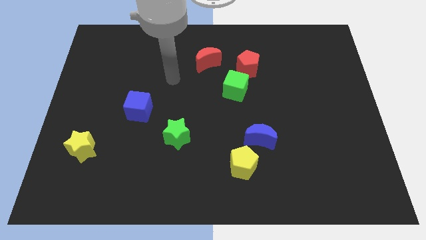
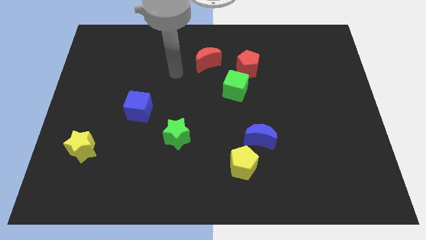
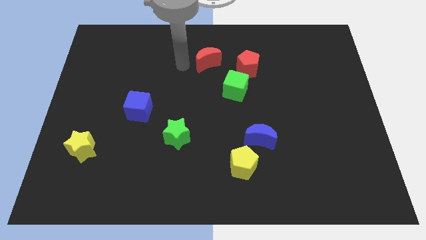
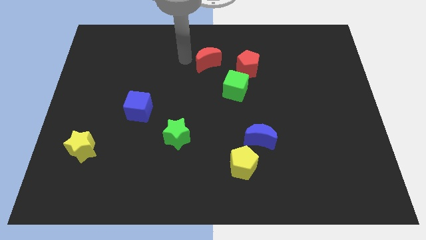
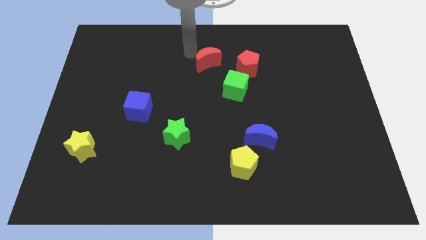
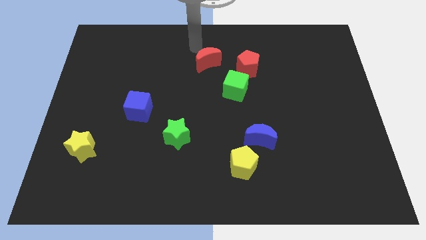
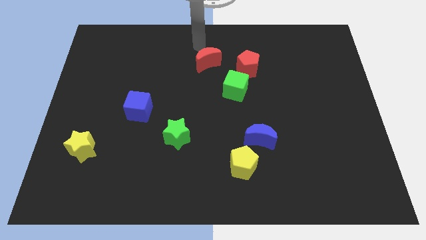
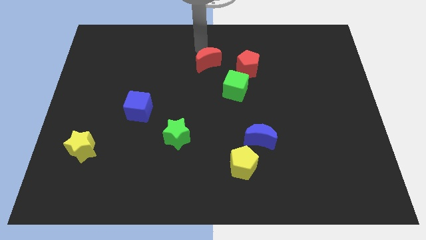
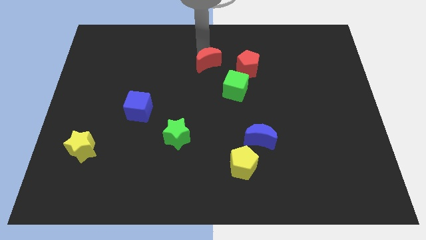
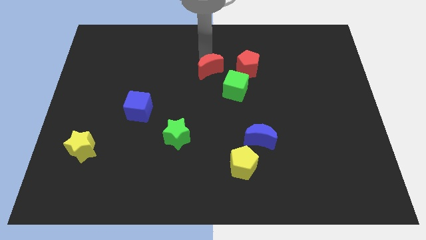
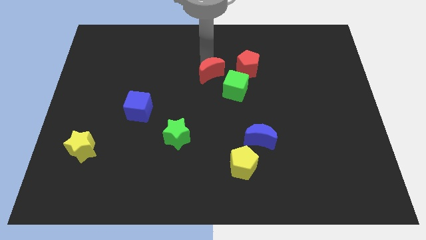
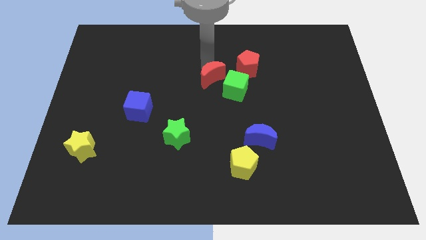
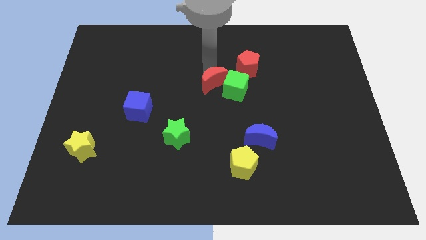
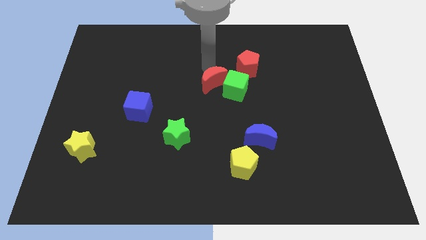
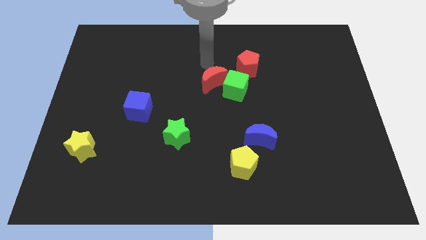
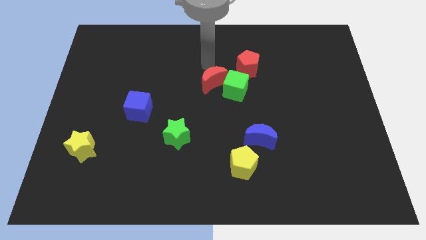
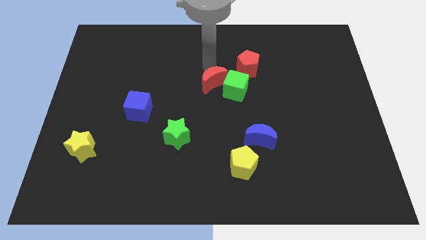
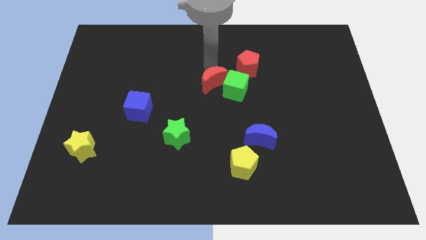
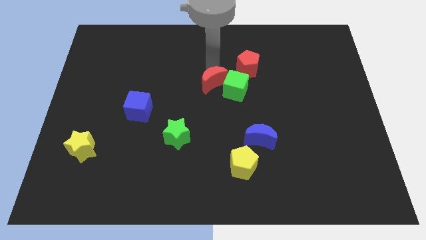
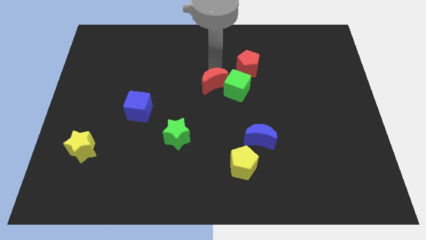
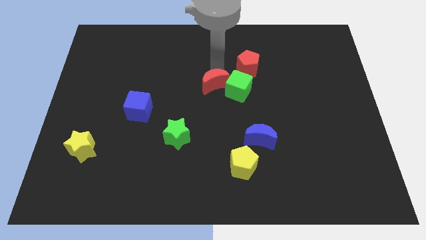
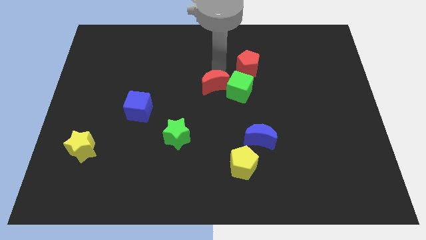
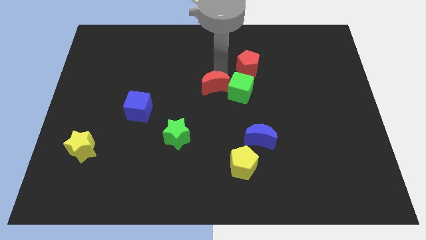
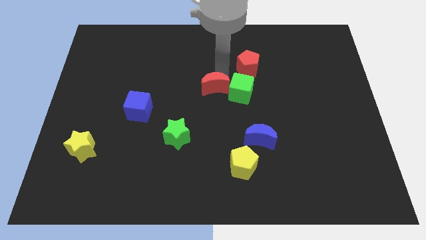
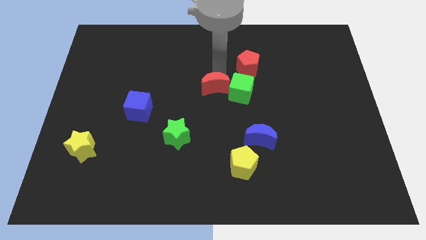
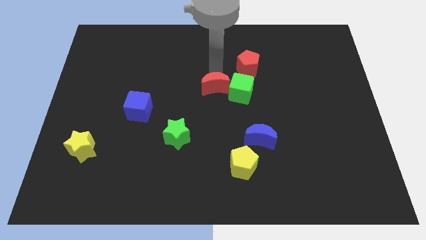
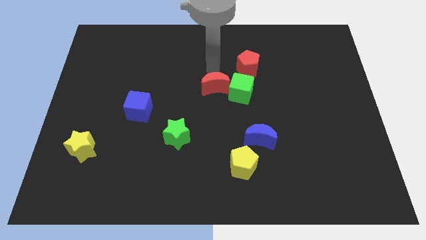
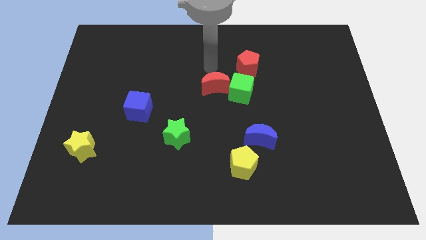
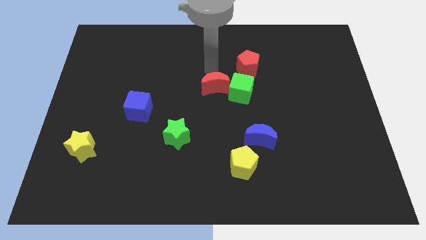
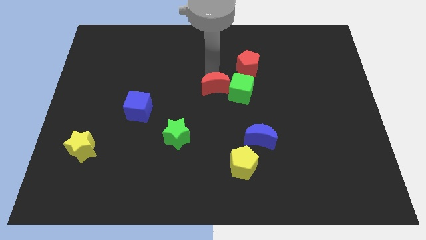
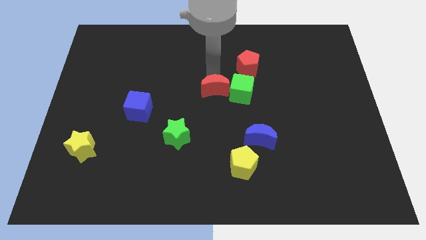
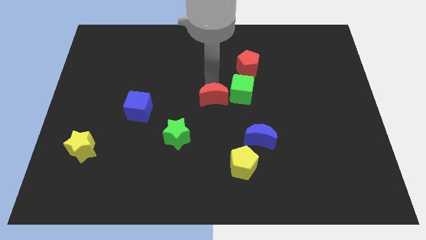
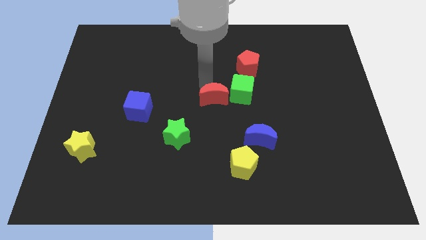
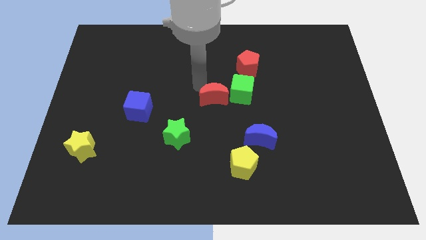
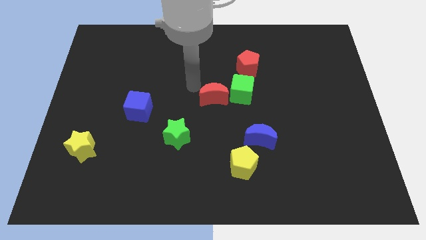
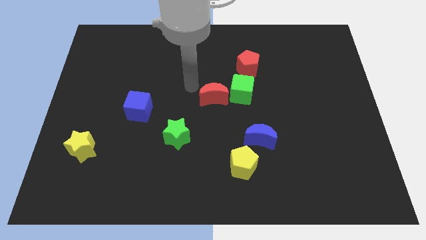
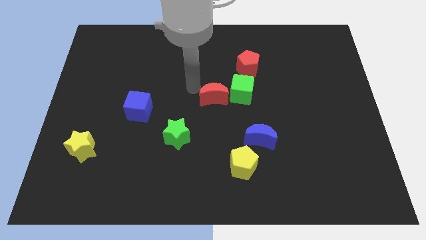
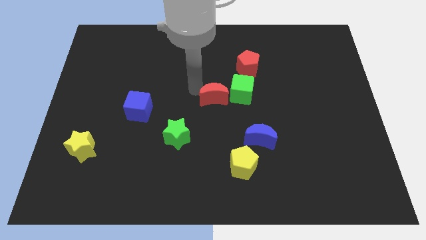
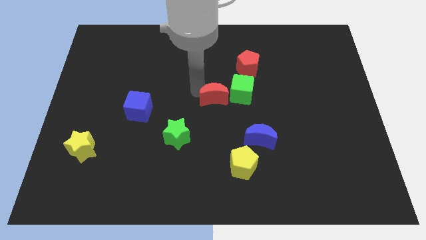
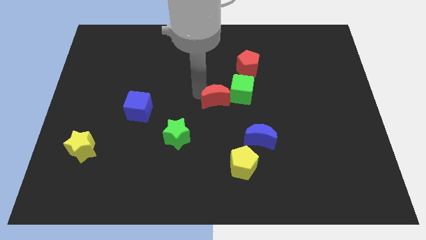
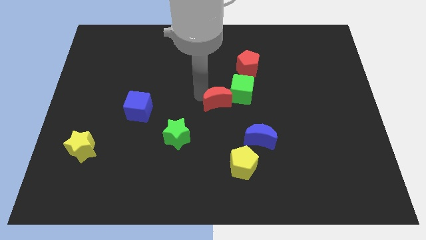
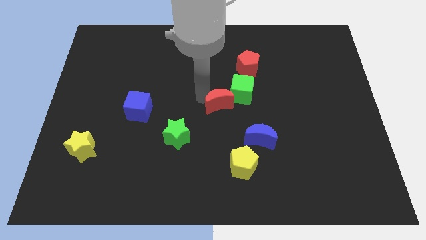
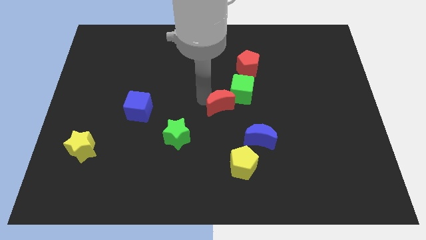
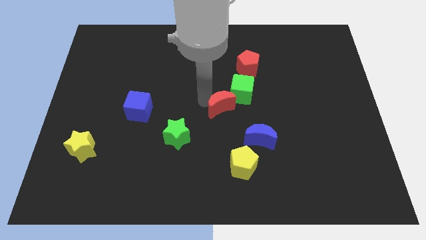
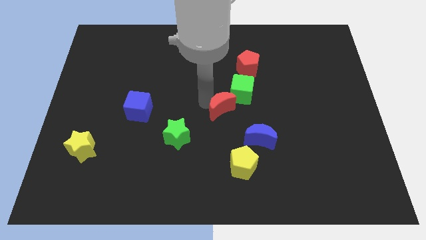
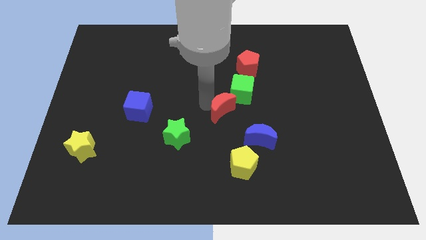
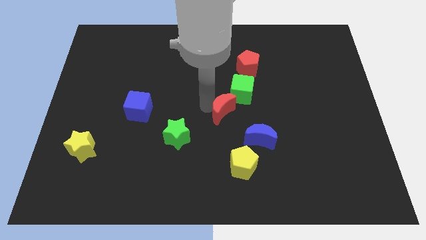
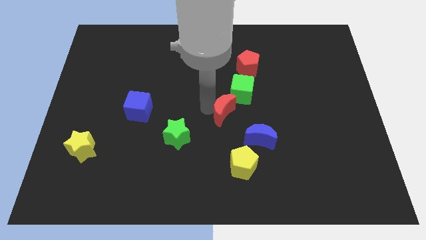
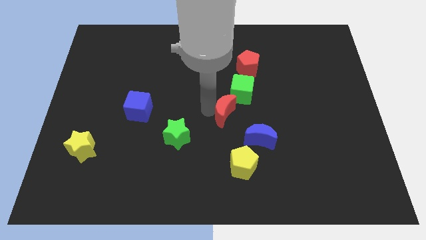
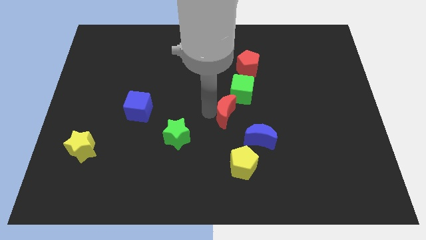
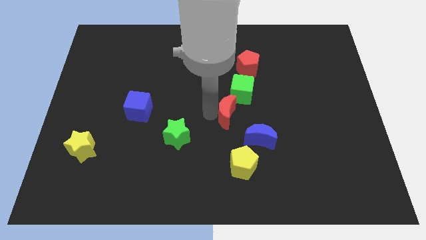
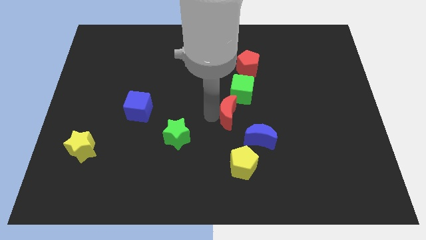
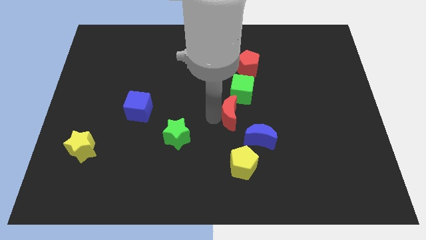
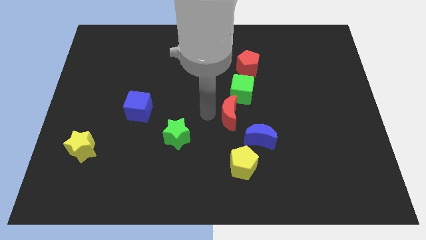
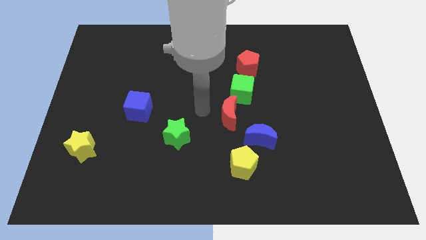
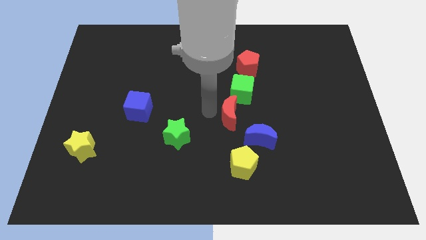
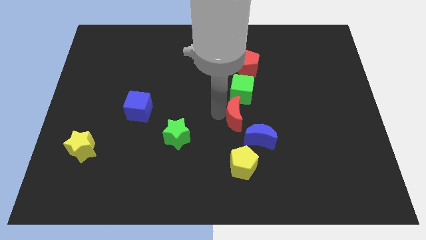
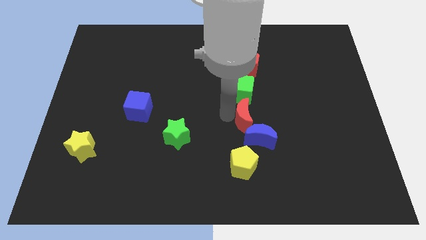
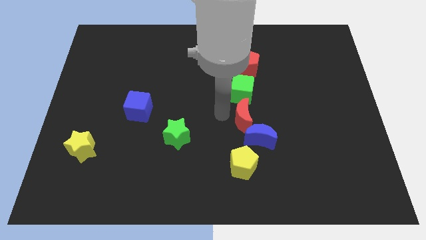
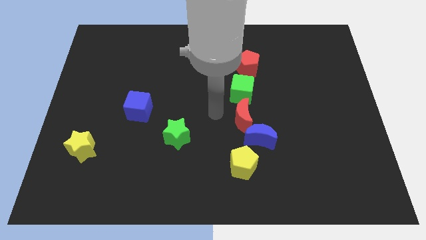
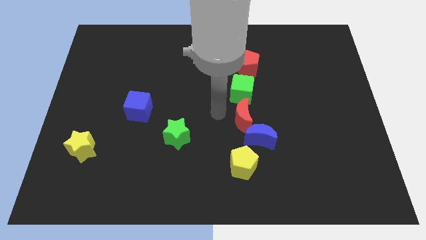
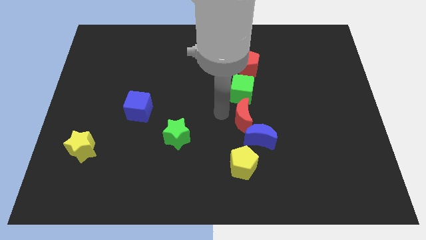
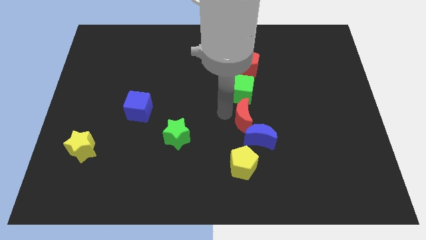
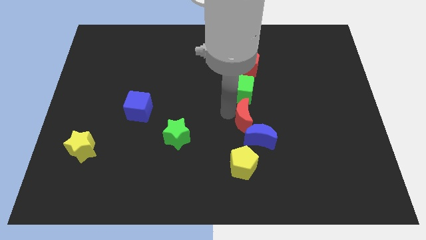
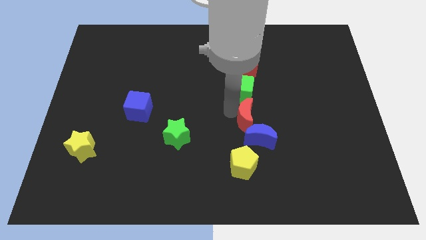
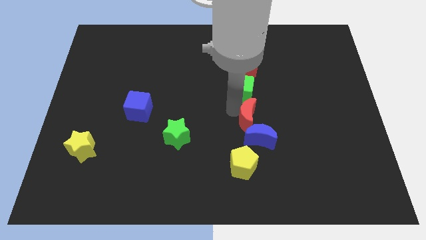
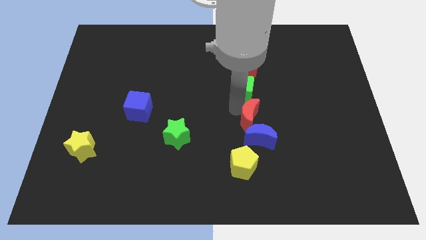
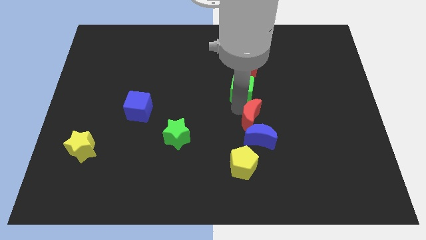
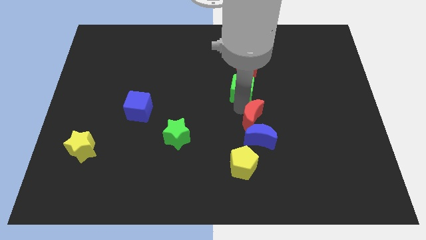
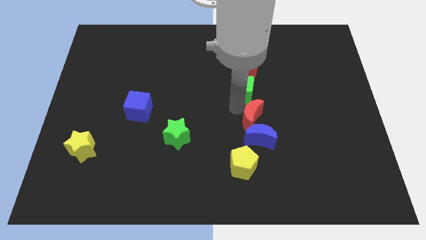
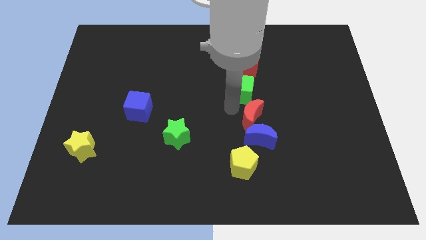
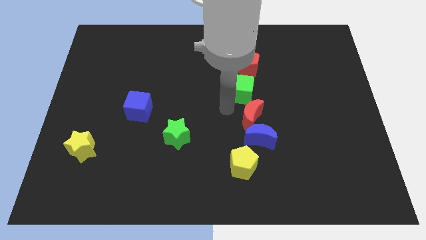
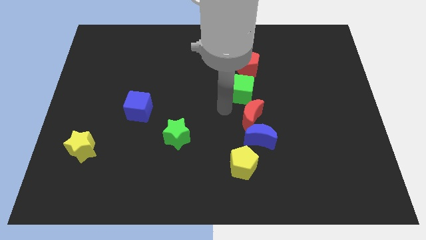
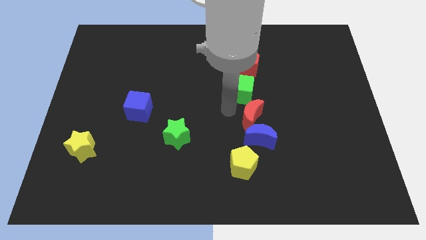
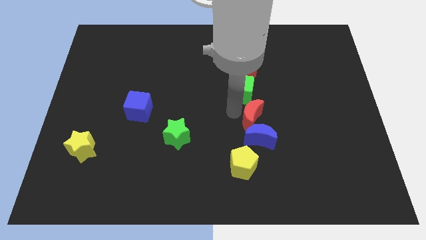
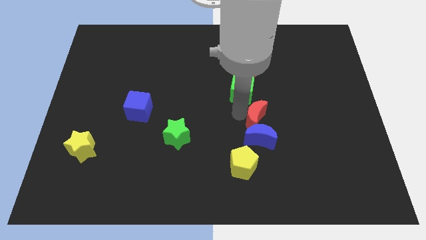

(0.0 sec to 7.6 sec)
move the red moon downwards and then right
